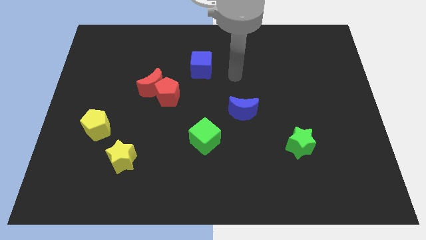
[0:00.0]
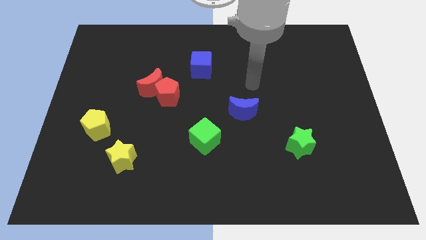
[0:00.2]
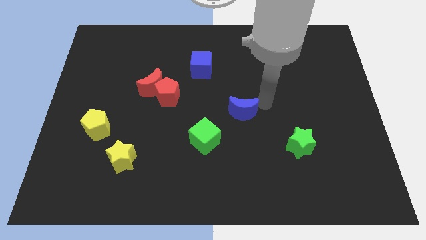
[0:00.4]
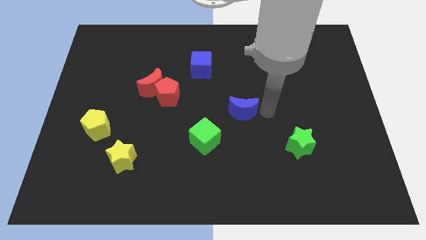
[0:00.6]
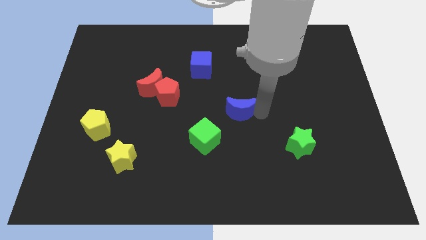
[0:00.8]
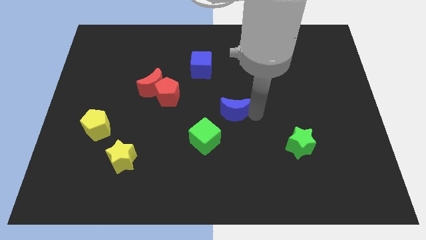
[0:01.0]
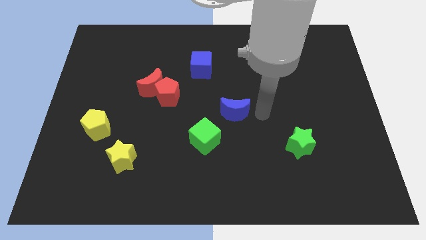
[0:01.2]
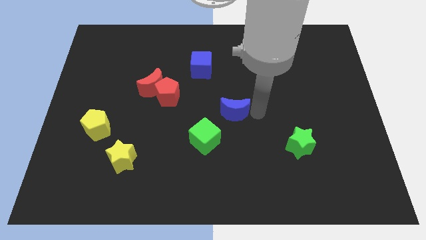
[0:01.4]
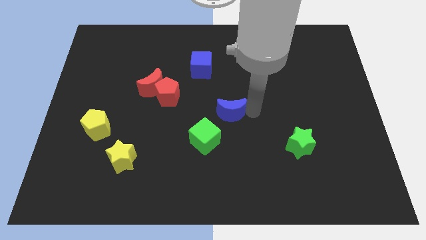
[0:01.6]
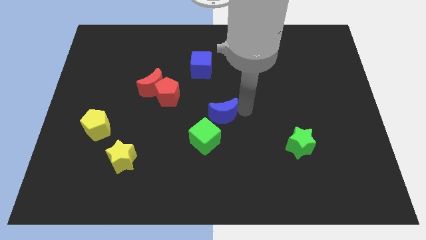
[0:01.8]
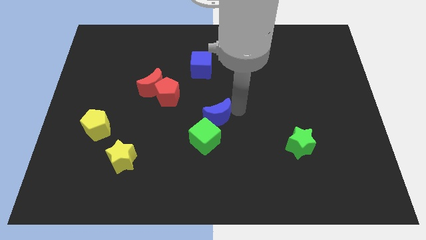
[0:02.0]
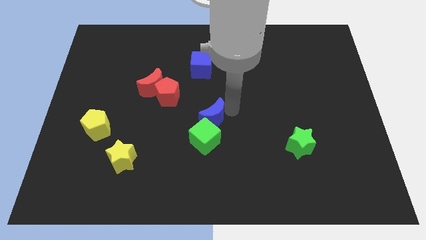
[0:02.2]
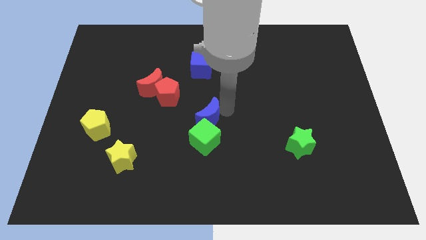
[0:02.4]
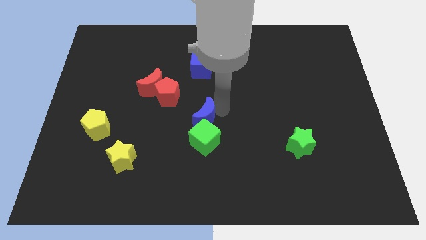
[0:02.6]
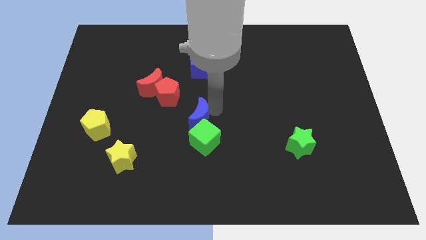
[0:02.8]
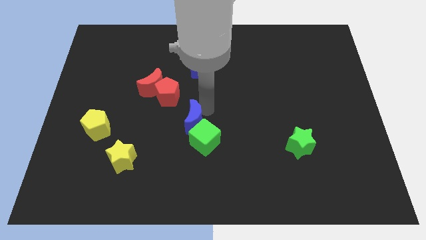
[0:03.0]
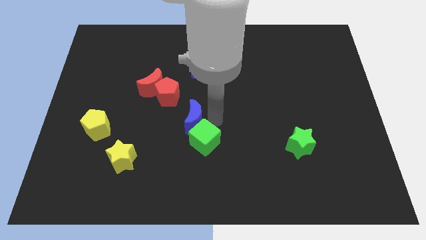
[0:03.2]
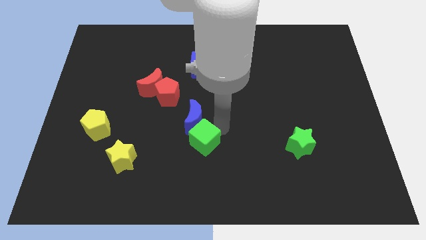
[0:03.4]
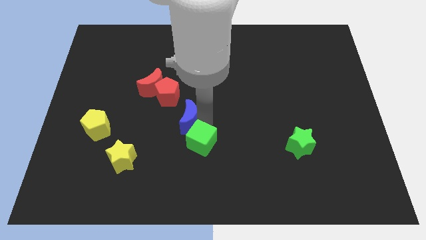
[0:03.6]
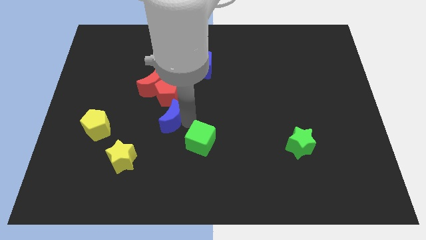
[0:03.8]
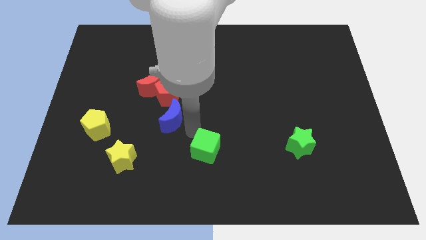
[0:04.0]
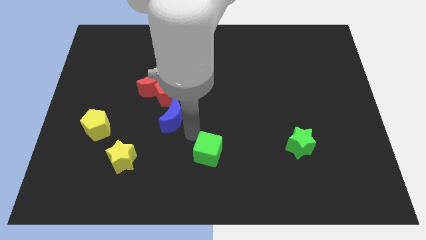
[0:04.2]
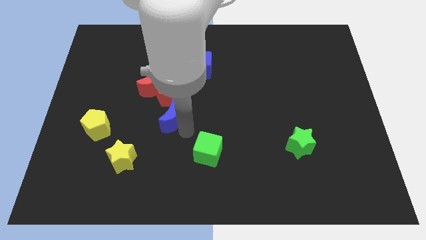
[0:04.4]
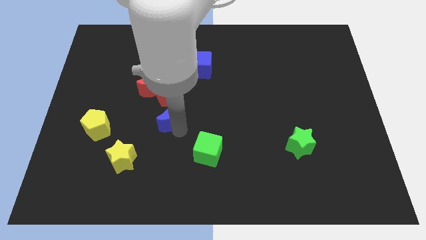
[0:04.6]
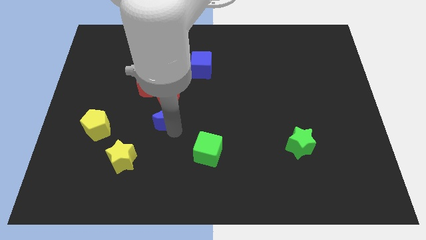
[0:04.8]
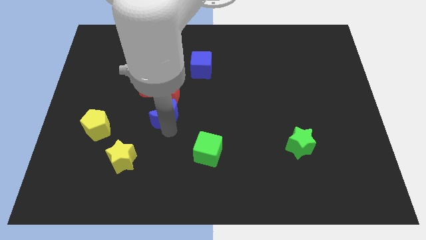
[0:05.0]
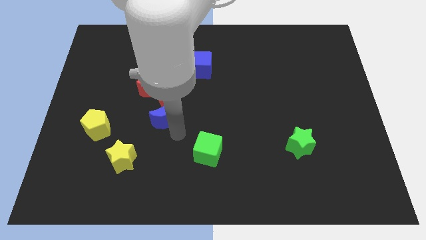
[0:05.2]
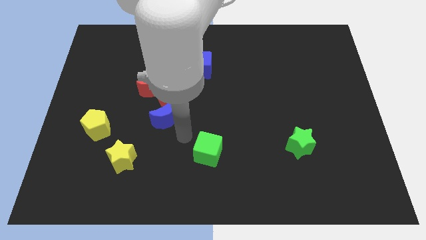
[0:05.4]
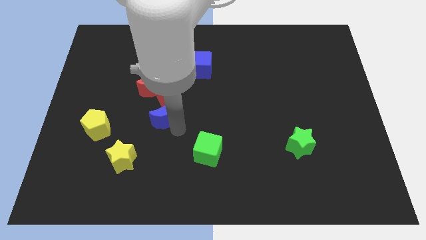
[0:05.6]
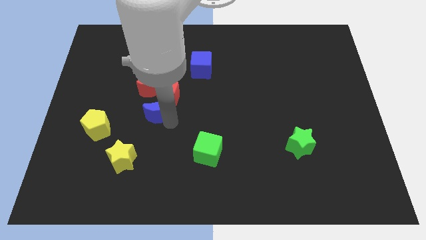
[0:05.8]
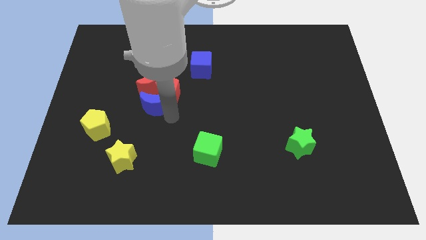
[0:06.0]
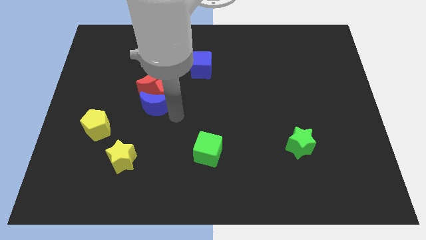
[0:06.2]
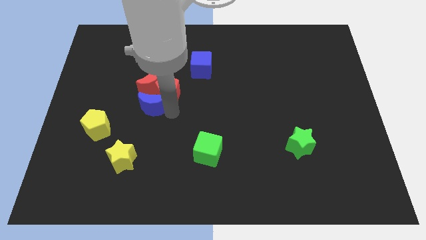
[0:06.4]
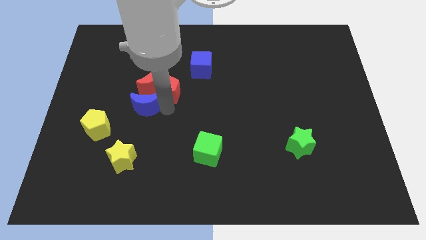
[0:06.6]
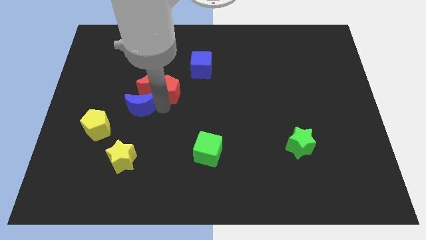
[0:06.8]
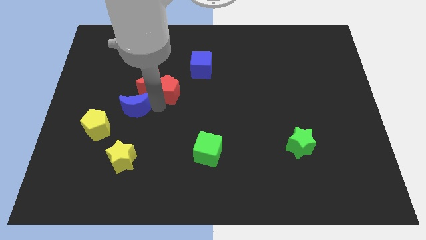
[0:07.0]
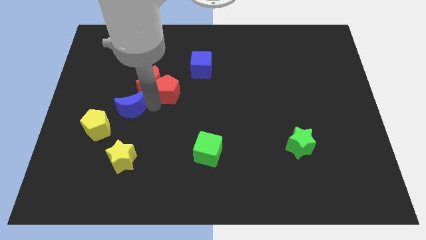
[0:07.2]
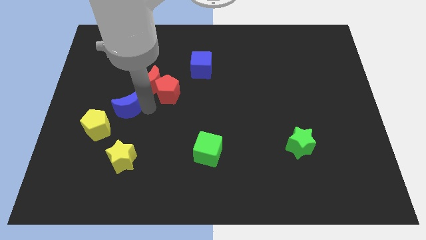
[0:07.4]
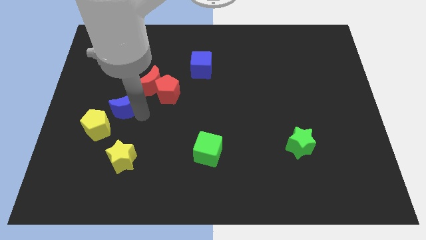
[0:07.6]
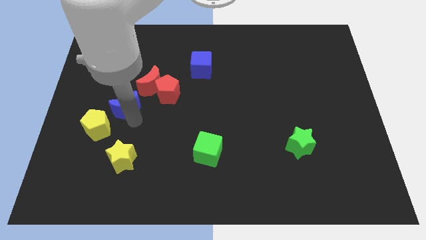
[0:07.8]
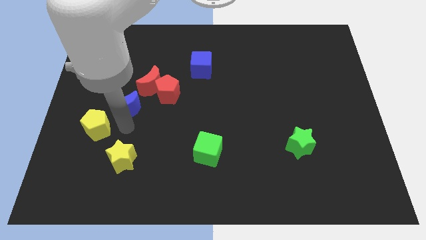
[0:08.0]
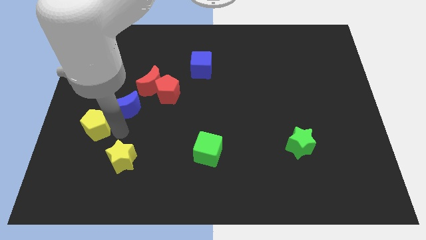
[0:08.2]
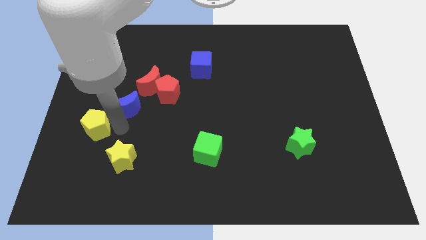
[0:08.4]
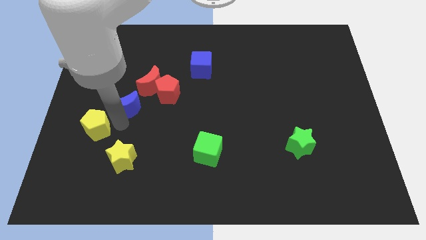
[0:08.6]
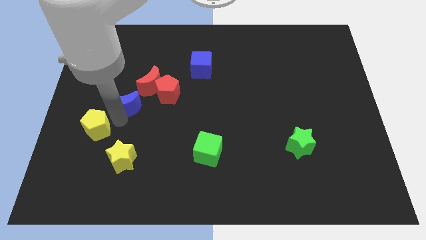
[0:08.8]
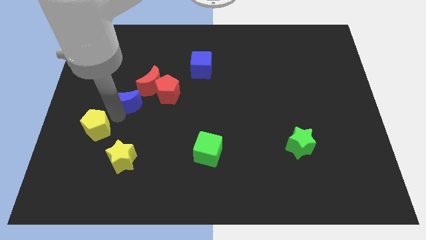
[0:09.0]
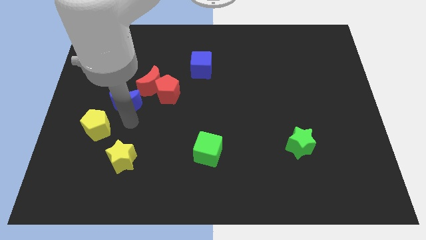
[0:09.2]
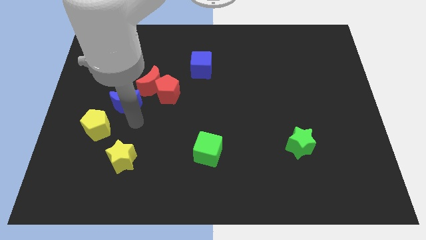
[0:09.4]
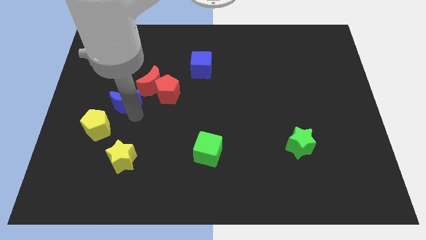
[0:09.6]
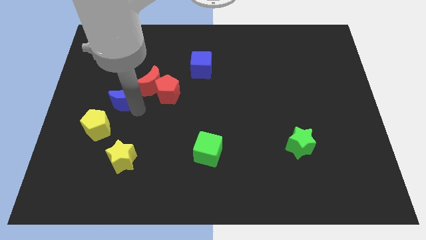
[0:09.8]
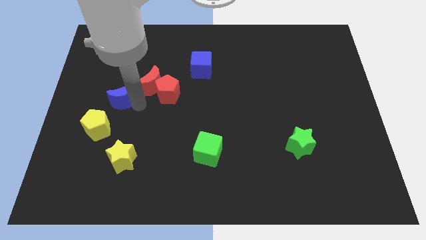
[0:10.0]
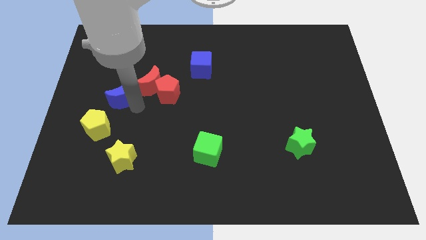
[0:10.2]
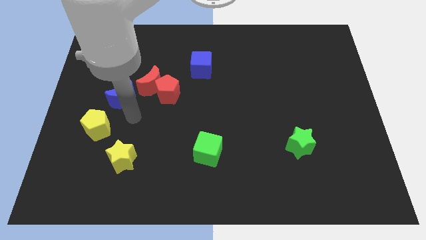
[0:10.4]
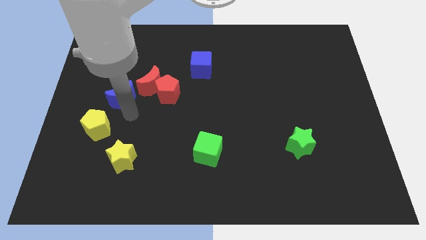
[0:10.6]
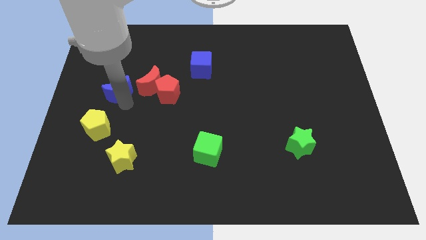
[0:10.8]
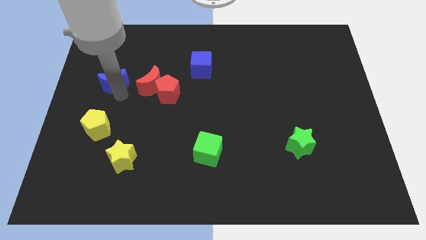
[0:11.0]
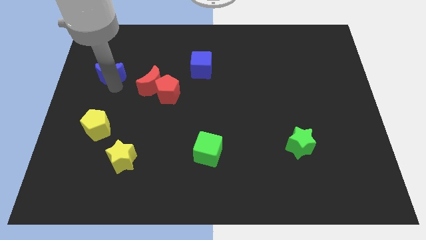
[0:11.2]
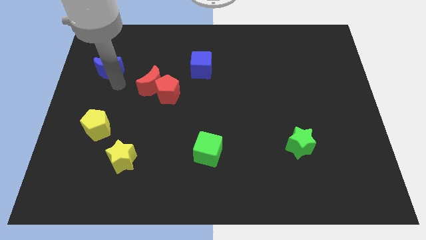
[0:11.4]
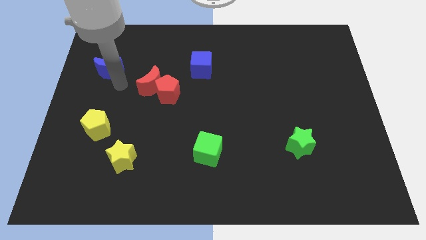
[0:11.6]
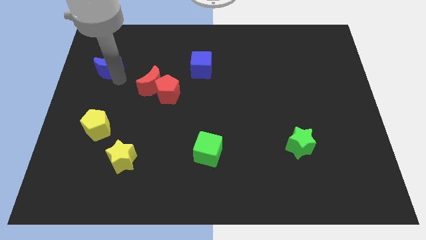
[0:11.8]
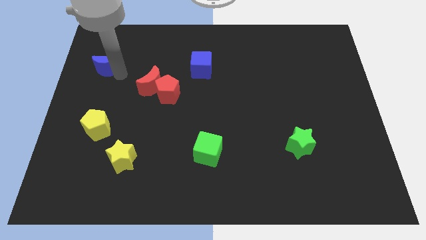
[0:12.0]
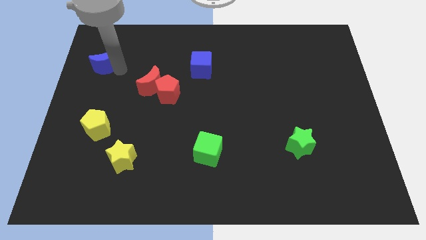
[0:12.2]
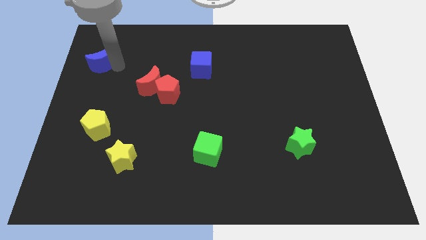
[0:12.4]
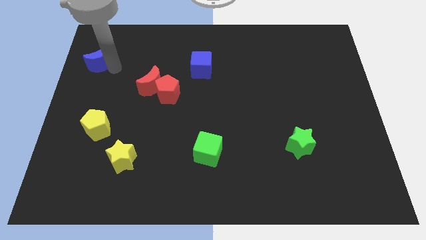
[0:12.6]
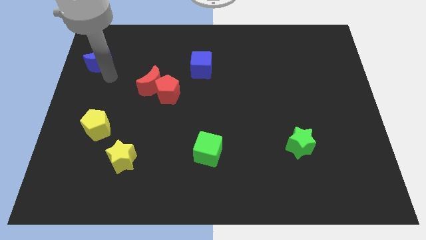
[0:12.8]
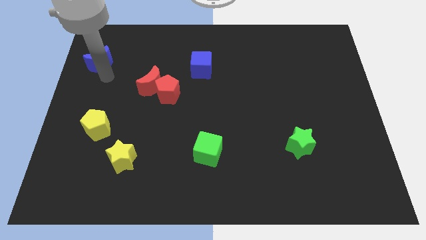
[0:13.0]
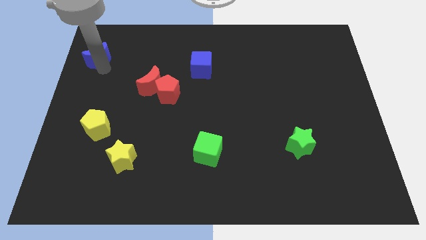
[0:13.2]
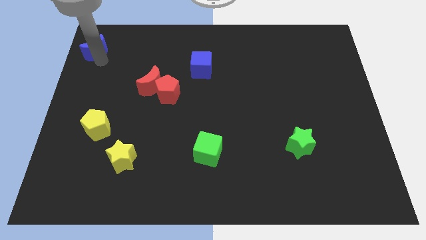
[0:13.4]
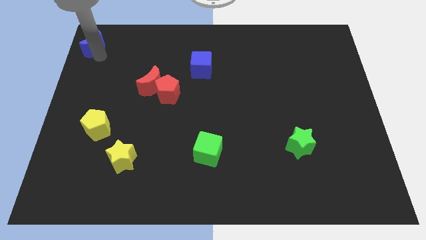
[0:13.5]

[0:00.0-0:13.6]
push the blue moon to the top left of the board
